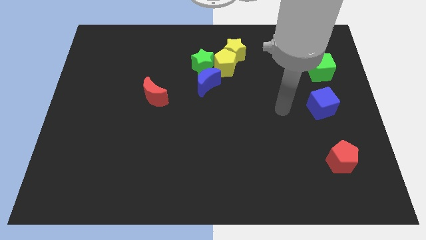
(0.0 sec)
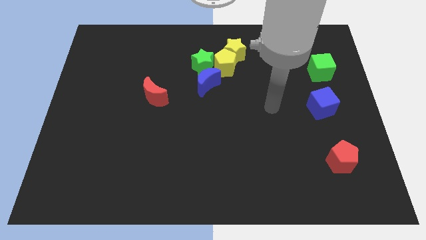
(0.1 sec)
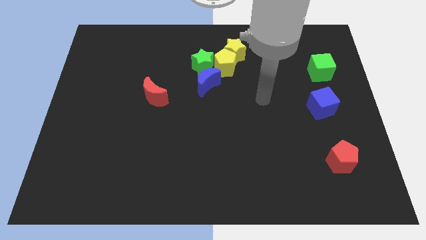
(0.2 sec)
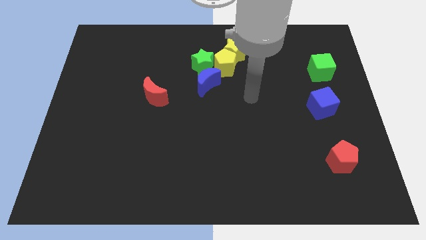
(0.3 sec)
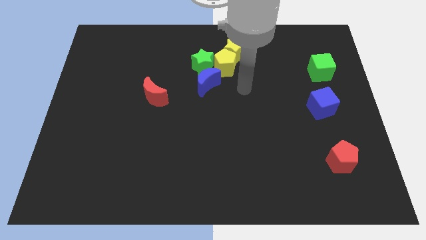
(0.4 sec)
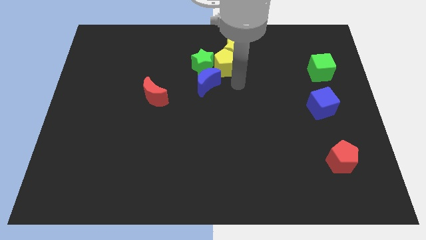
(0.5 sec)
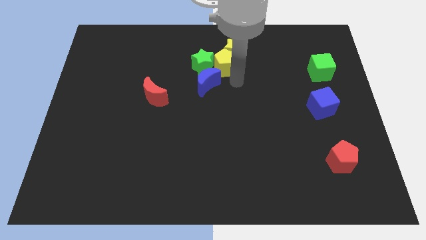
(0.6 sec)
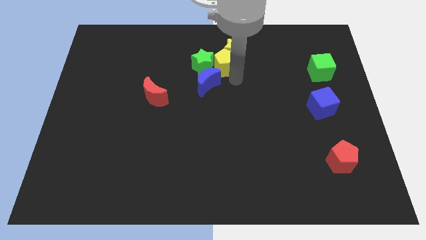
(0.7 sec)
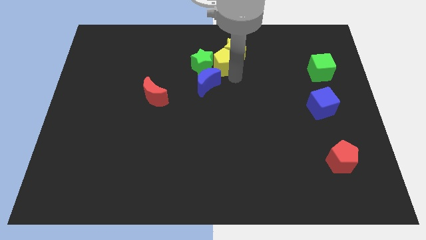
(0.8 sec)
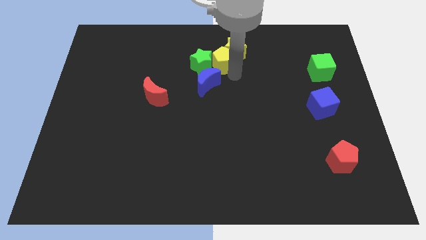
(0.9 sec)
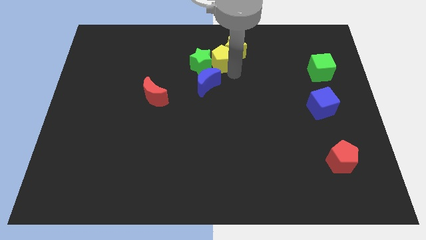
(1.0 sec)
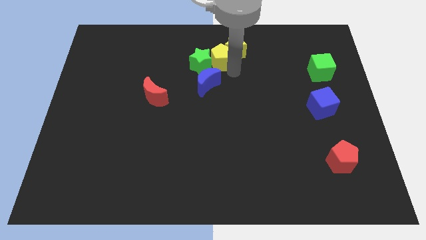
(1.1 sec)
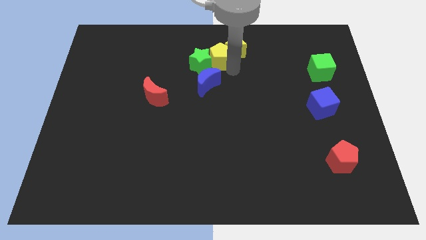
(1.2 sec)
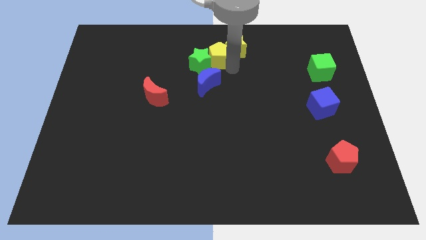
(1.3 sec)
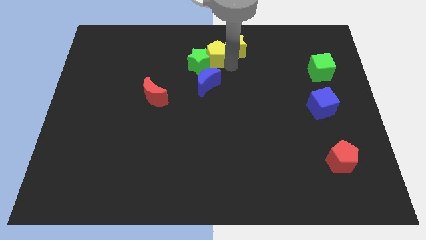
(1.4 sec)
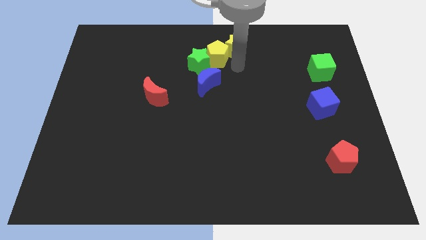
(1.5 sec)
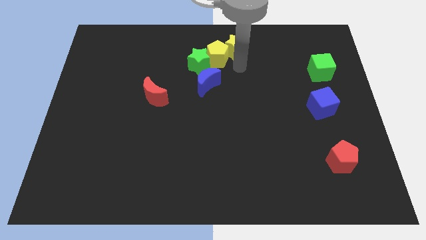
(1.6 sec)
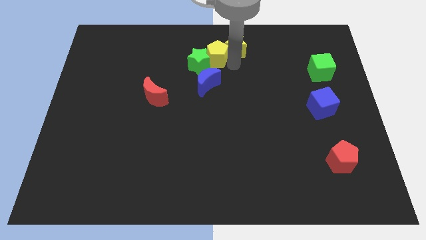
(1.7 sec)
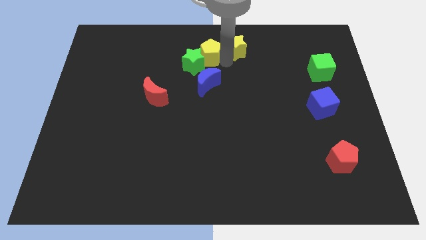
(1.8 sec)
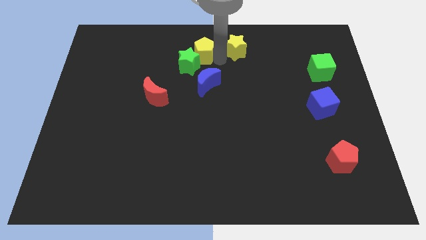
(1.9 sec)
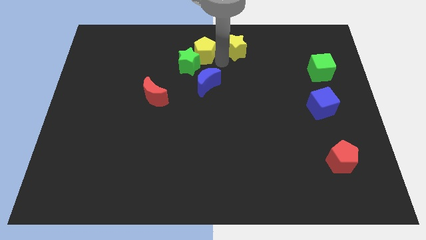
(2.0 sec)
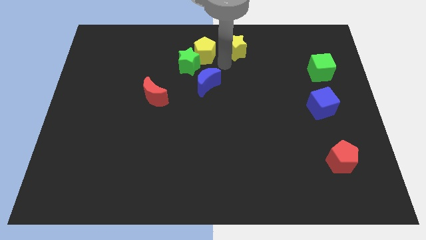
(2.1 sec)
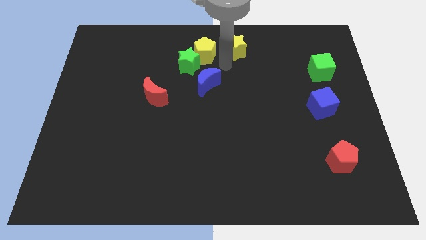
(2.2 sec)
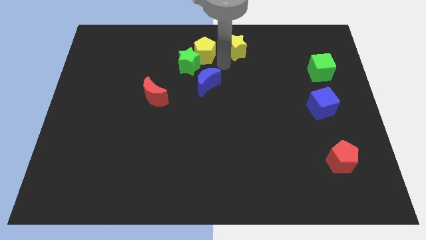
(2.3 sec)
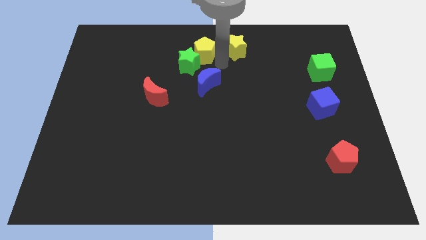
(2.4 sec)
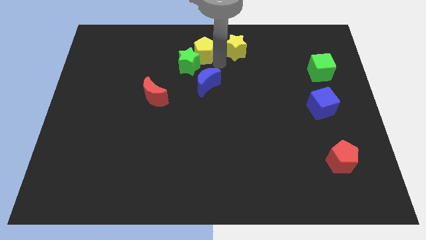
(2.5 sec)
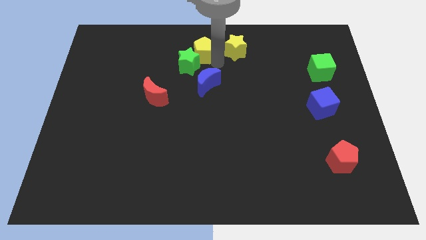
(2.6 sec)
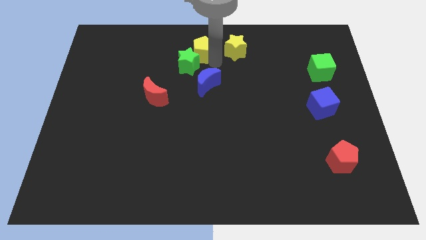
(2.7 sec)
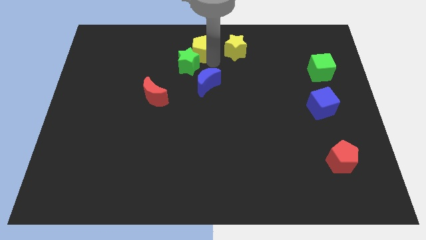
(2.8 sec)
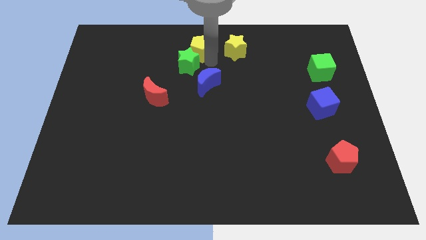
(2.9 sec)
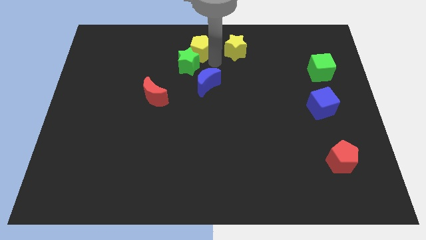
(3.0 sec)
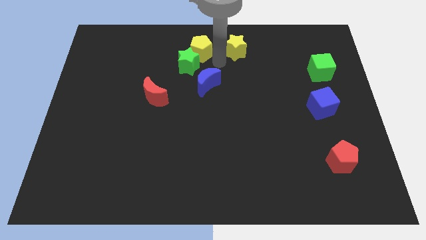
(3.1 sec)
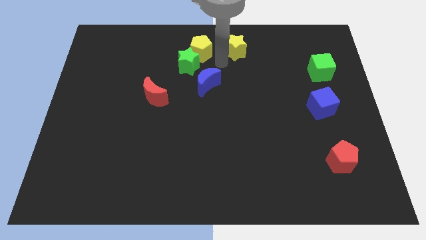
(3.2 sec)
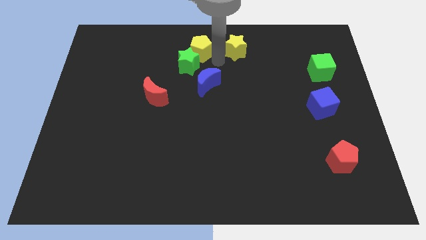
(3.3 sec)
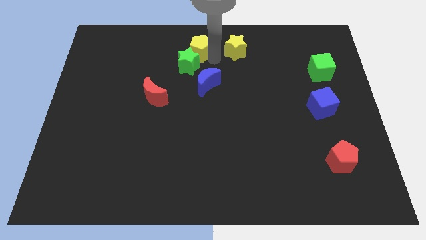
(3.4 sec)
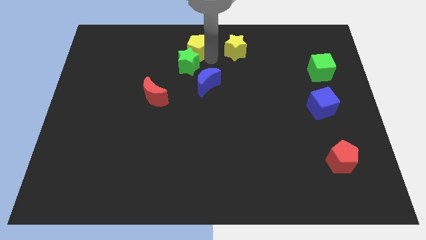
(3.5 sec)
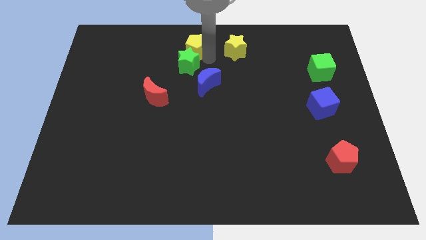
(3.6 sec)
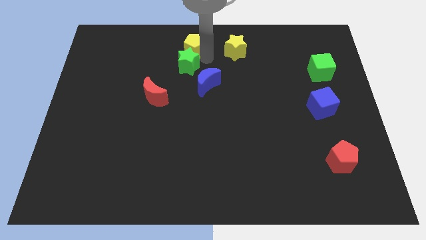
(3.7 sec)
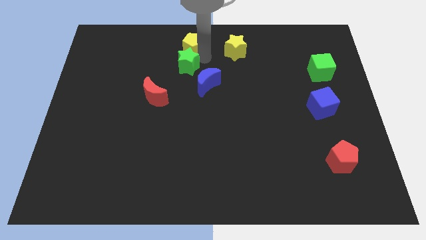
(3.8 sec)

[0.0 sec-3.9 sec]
slightly move the yellow pentagon left

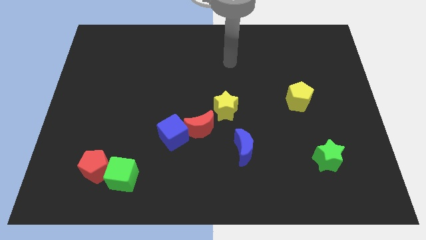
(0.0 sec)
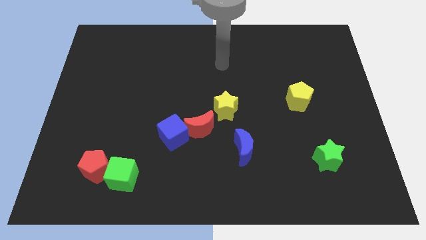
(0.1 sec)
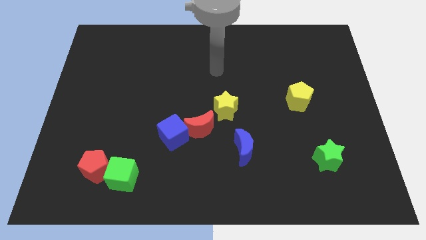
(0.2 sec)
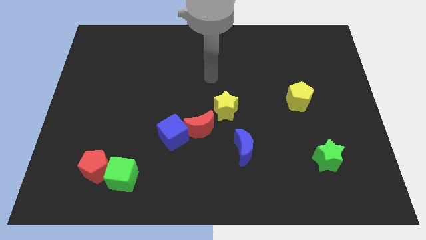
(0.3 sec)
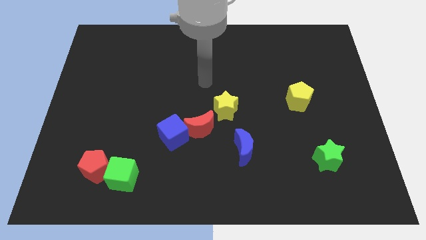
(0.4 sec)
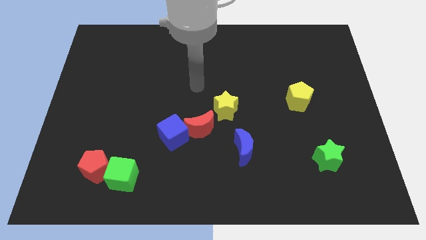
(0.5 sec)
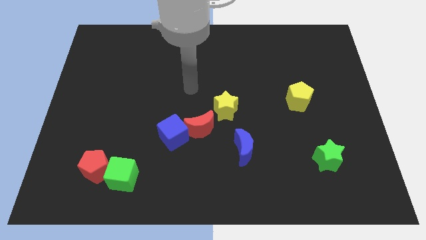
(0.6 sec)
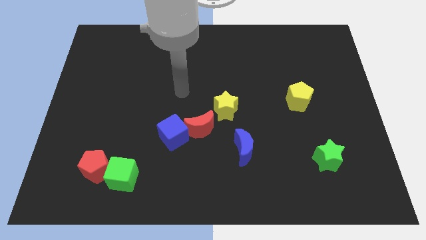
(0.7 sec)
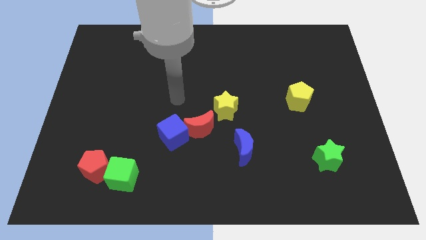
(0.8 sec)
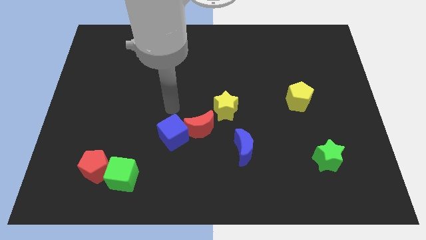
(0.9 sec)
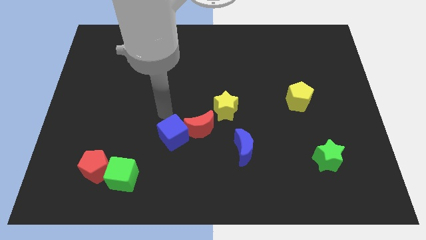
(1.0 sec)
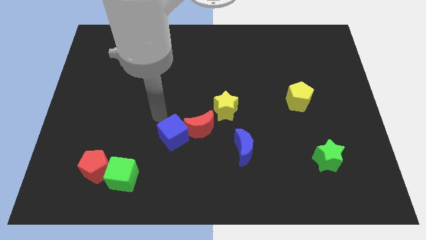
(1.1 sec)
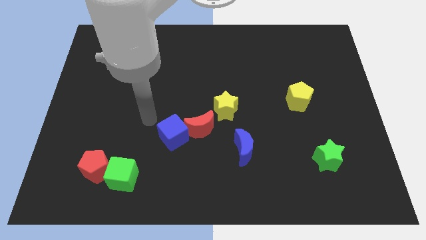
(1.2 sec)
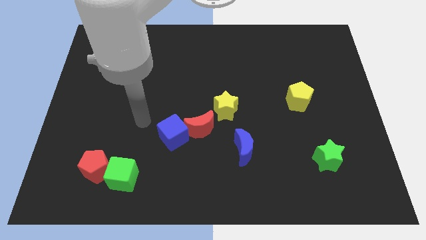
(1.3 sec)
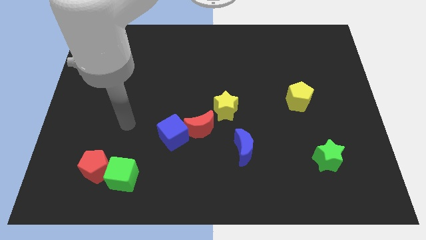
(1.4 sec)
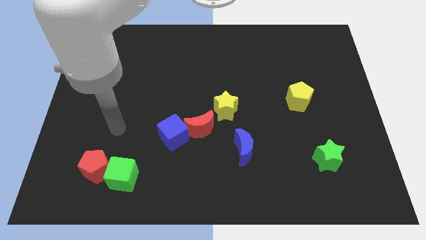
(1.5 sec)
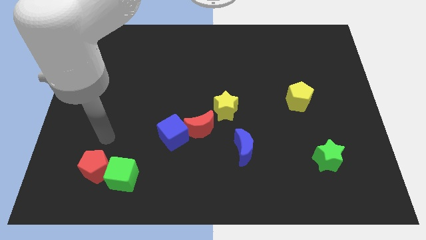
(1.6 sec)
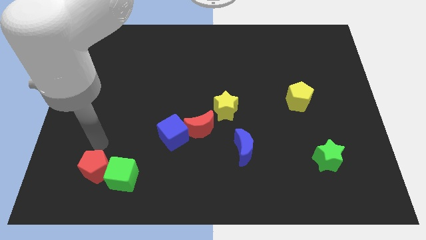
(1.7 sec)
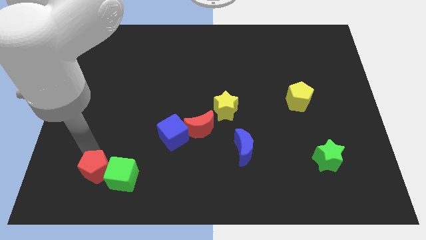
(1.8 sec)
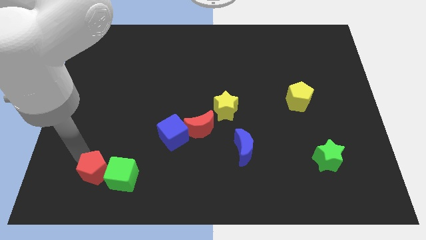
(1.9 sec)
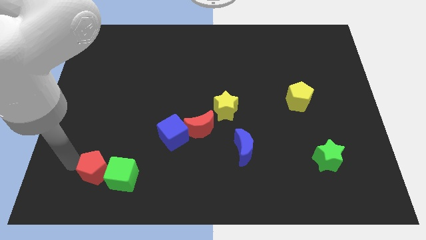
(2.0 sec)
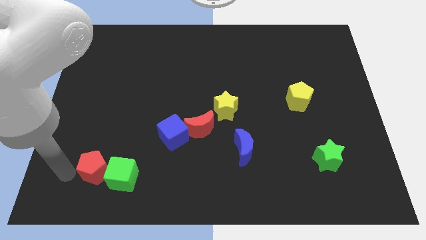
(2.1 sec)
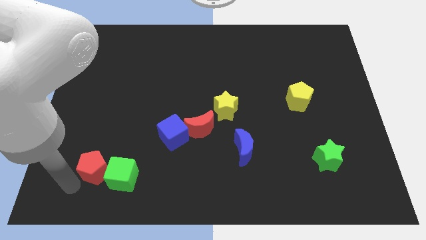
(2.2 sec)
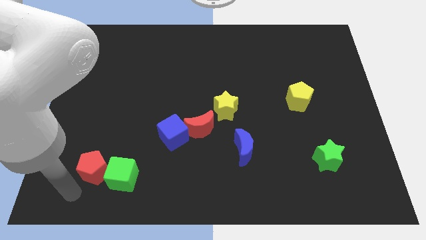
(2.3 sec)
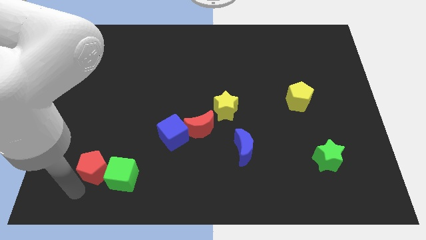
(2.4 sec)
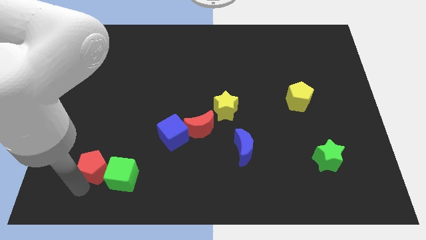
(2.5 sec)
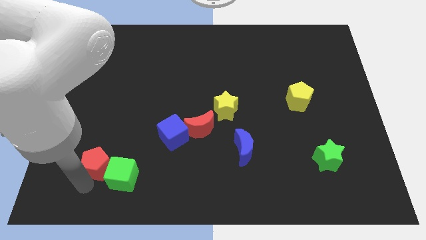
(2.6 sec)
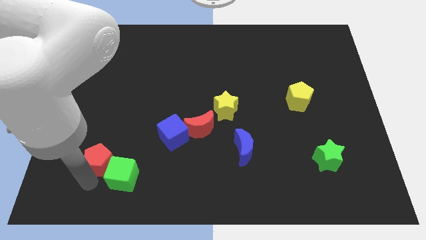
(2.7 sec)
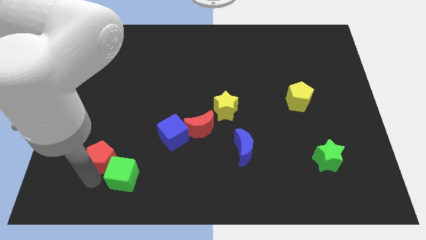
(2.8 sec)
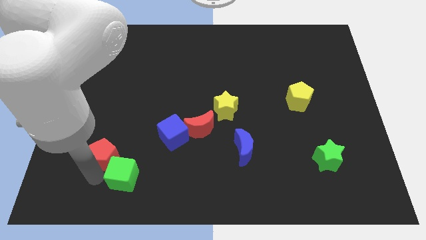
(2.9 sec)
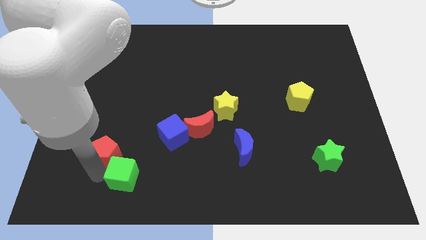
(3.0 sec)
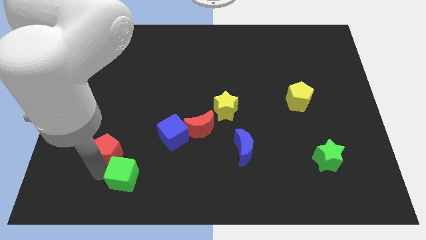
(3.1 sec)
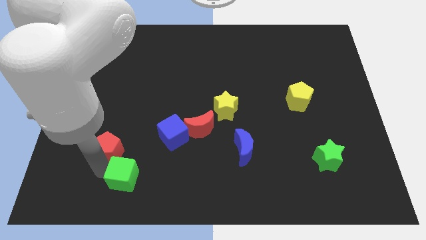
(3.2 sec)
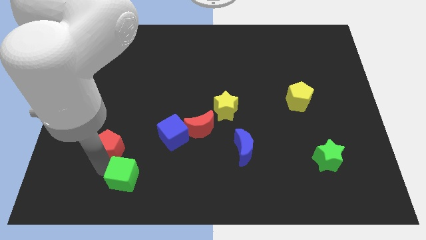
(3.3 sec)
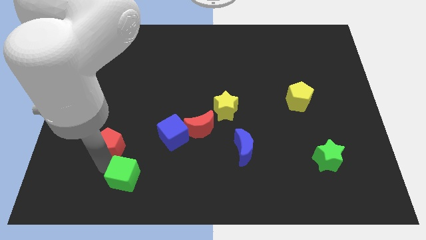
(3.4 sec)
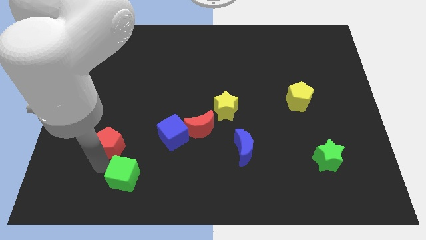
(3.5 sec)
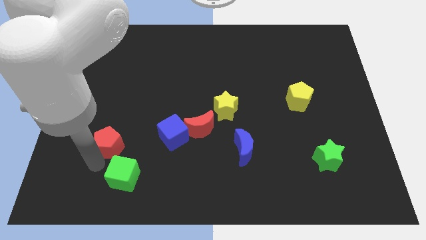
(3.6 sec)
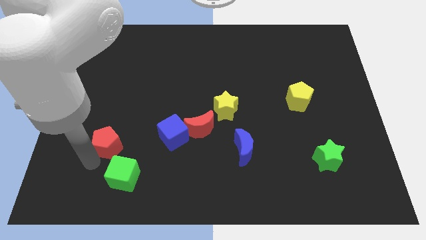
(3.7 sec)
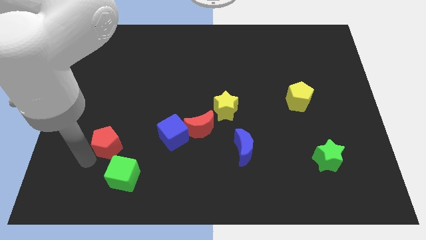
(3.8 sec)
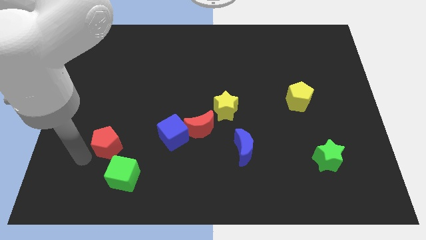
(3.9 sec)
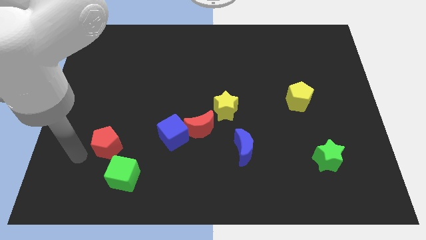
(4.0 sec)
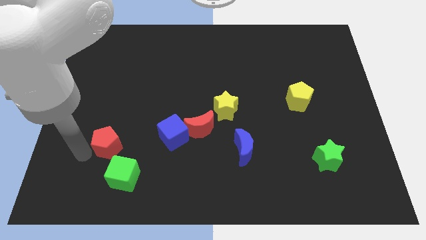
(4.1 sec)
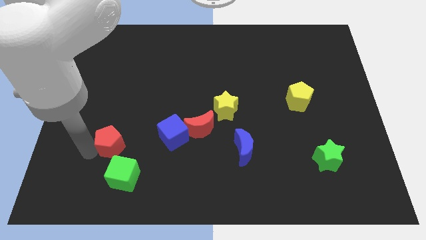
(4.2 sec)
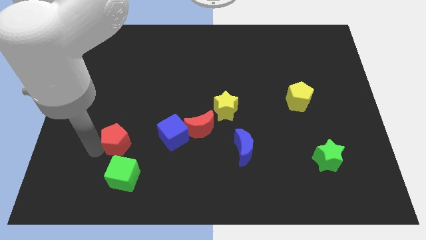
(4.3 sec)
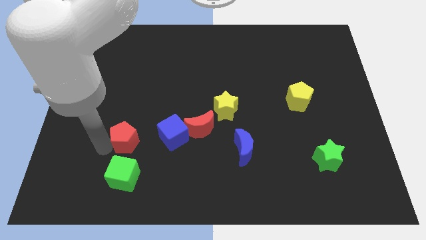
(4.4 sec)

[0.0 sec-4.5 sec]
push the red pentagon a bit diagonally upwards and to the right
